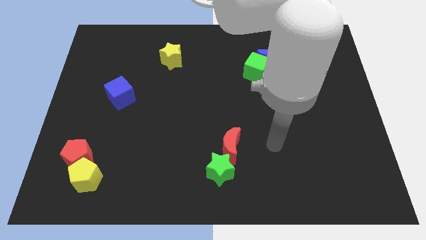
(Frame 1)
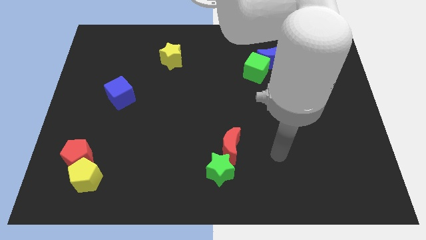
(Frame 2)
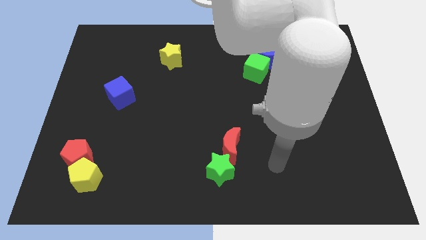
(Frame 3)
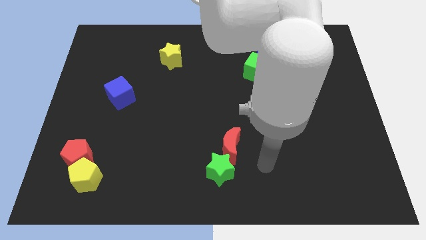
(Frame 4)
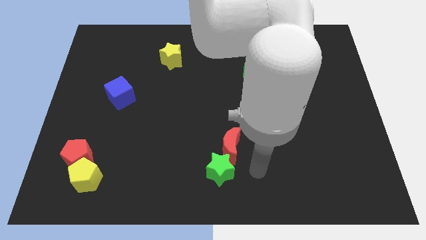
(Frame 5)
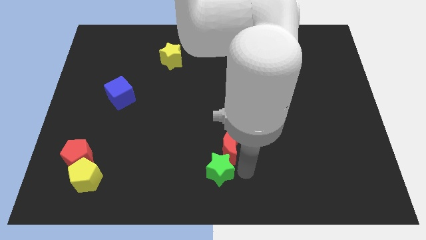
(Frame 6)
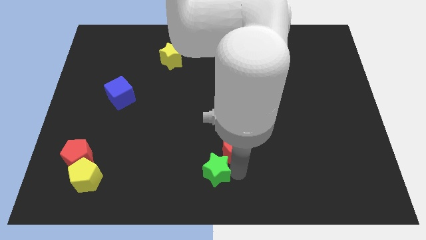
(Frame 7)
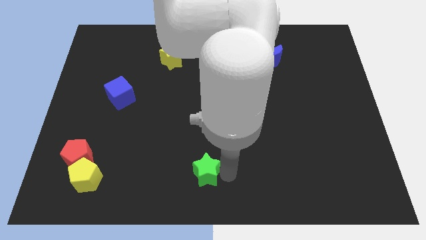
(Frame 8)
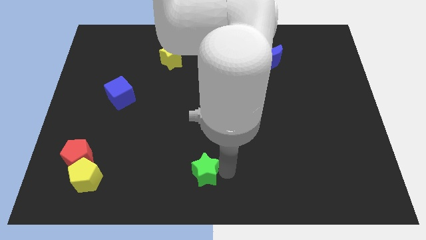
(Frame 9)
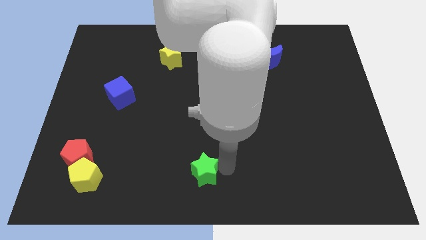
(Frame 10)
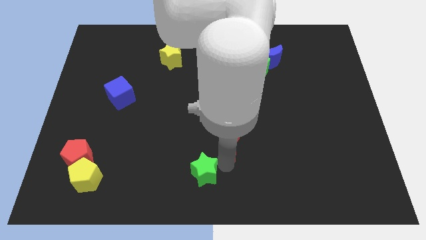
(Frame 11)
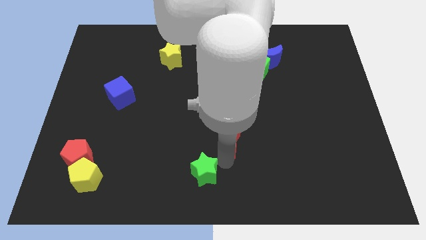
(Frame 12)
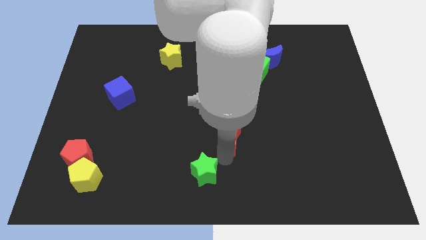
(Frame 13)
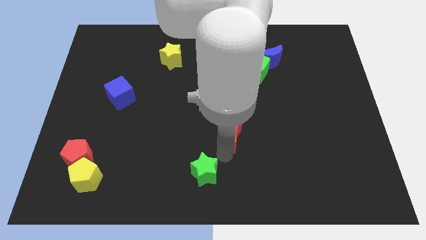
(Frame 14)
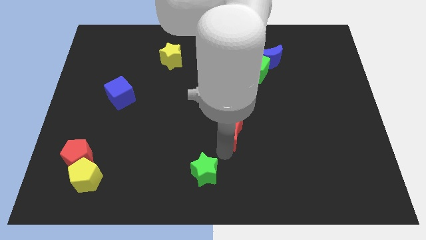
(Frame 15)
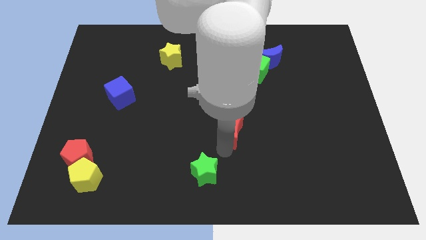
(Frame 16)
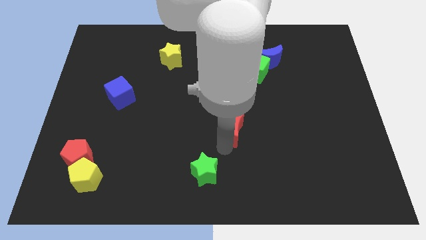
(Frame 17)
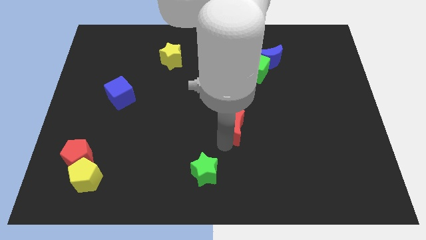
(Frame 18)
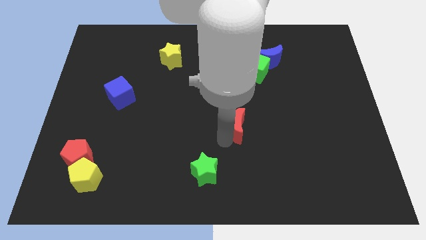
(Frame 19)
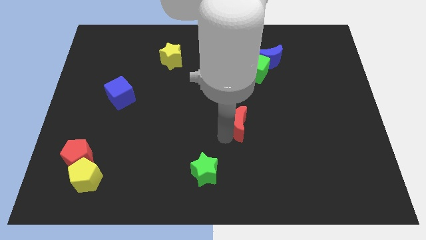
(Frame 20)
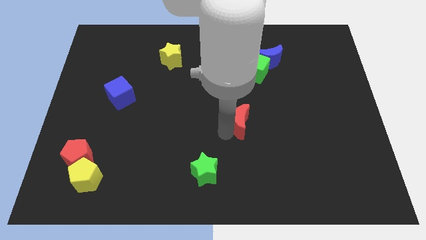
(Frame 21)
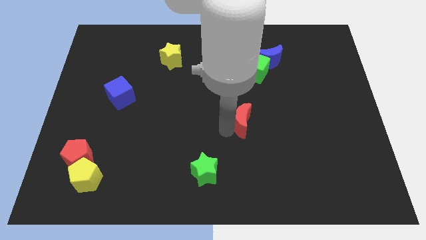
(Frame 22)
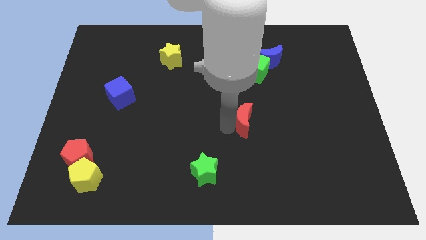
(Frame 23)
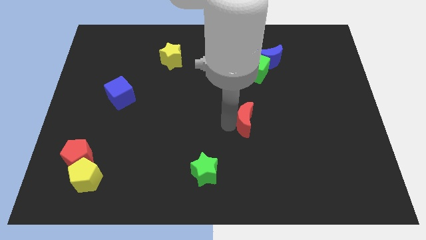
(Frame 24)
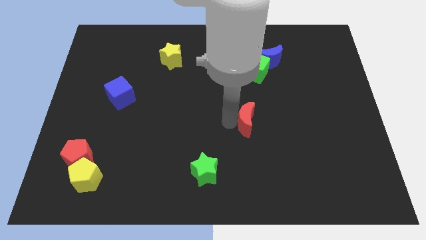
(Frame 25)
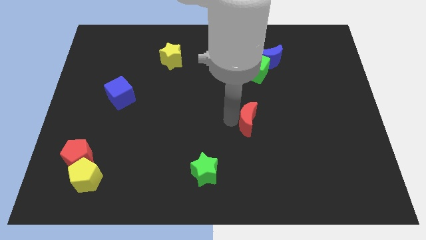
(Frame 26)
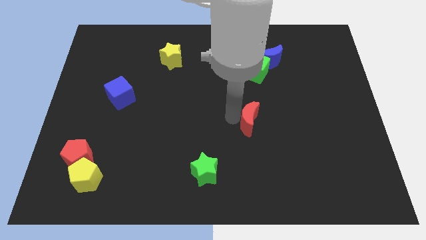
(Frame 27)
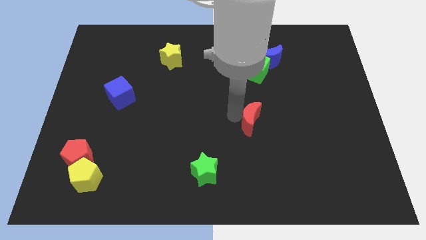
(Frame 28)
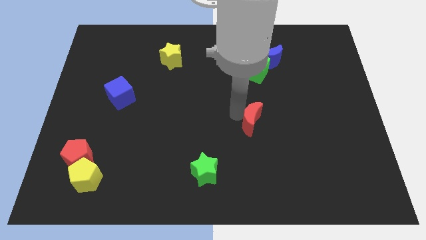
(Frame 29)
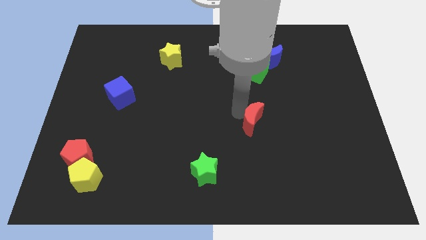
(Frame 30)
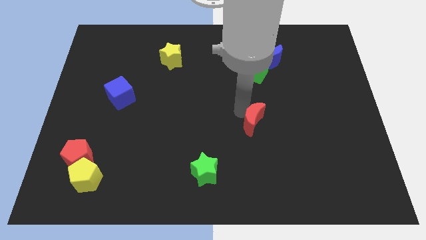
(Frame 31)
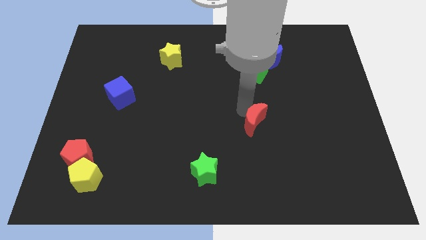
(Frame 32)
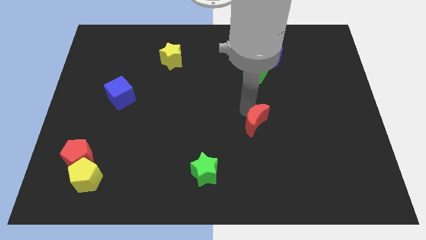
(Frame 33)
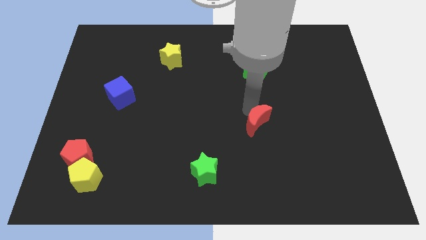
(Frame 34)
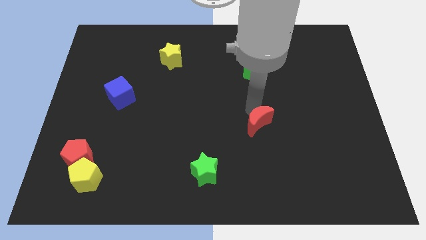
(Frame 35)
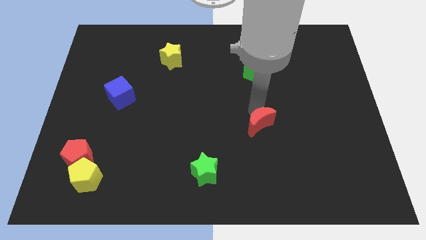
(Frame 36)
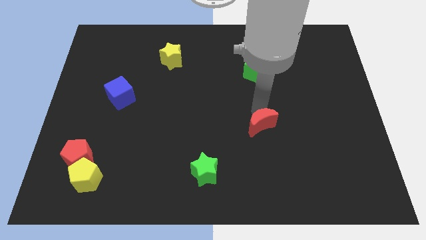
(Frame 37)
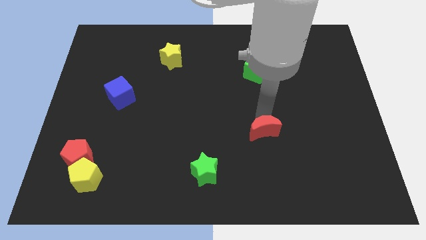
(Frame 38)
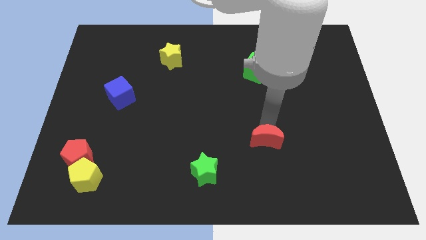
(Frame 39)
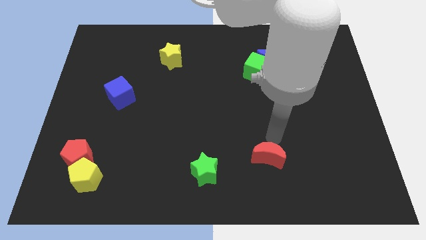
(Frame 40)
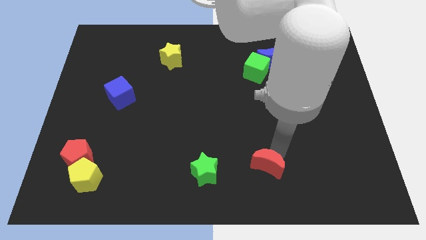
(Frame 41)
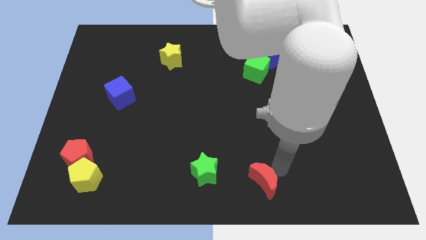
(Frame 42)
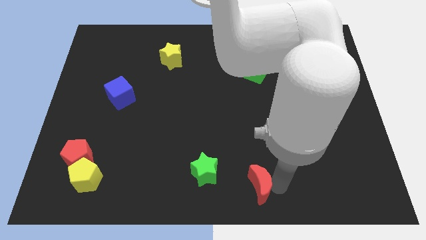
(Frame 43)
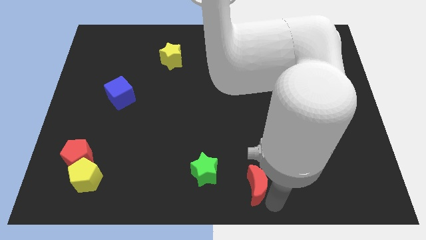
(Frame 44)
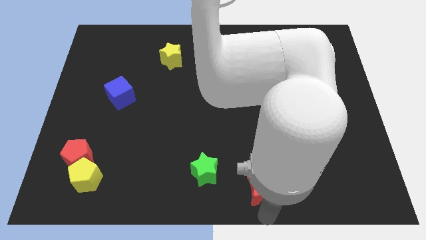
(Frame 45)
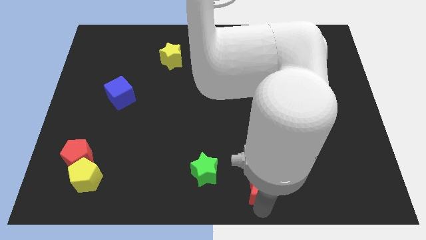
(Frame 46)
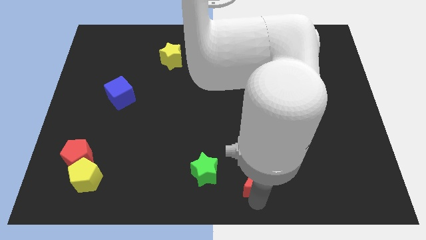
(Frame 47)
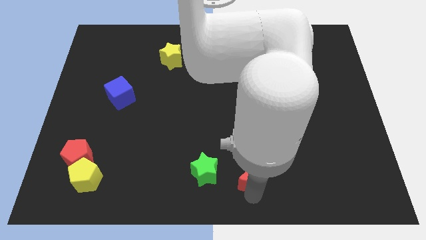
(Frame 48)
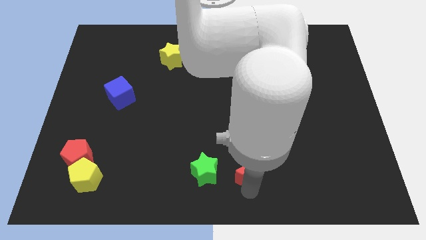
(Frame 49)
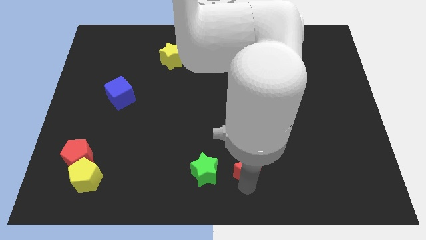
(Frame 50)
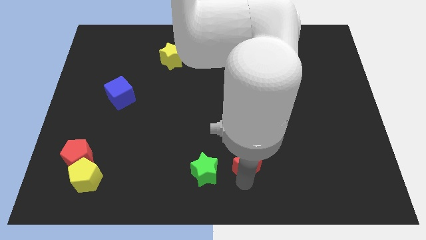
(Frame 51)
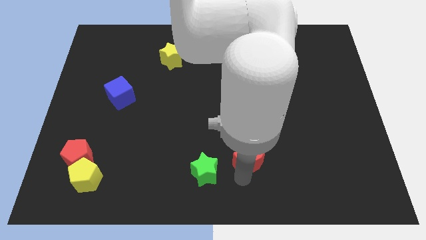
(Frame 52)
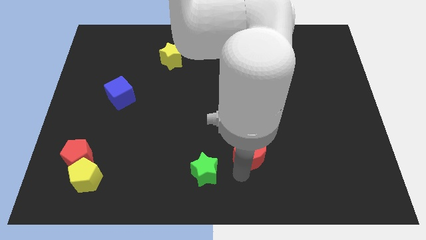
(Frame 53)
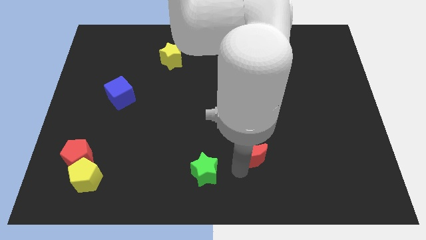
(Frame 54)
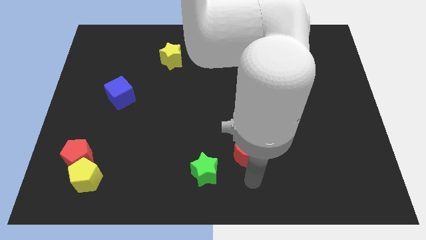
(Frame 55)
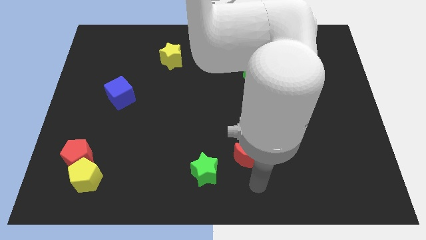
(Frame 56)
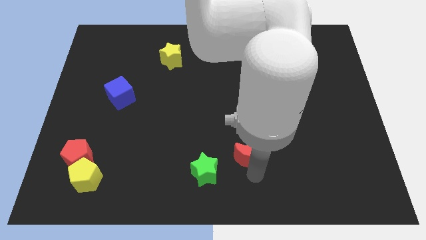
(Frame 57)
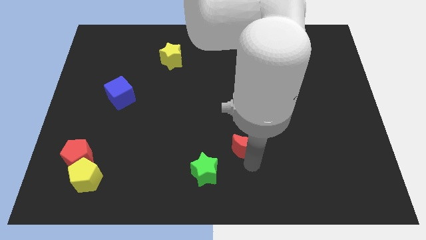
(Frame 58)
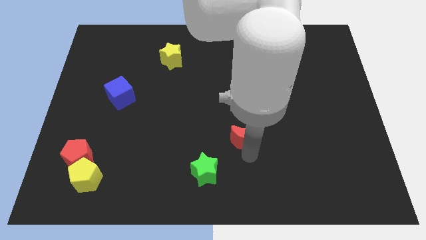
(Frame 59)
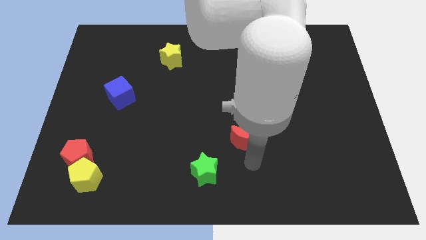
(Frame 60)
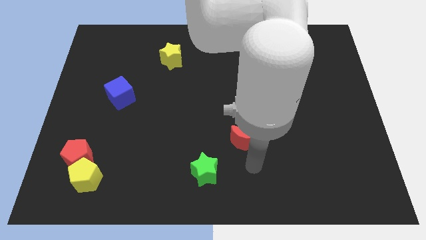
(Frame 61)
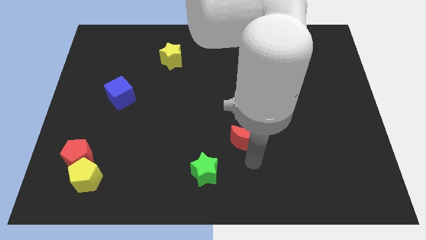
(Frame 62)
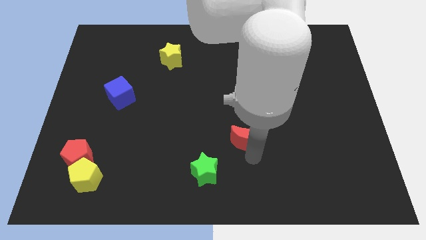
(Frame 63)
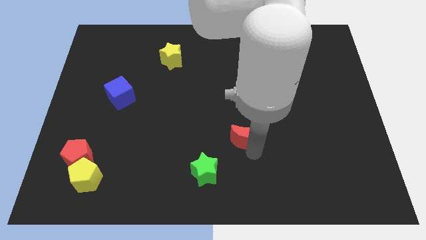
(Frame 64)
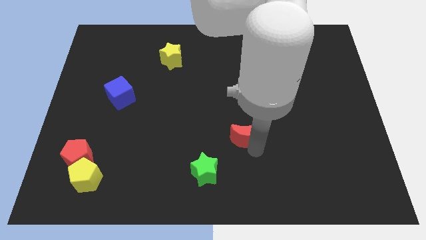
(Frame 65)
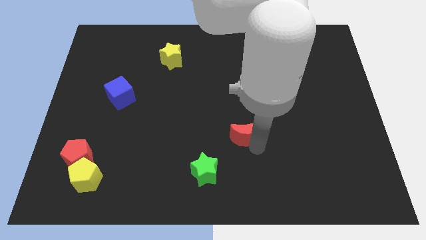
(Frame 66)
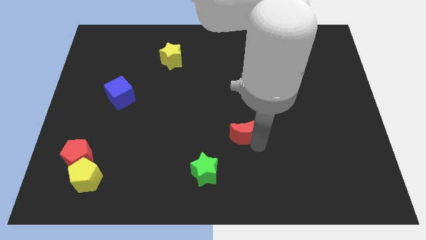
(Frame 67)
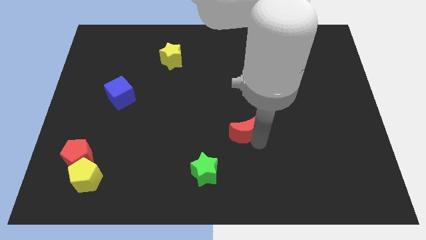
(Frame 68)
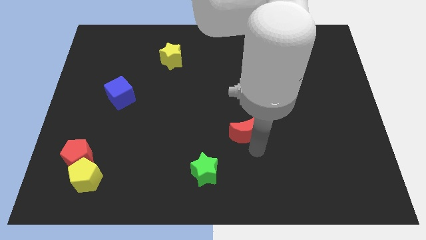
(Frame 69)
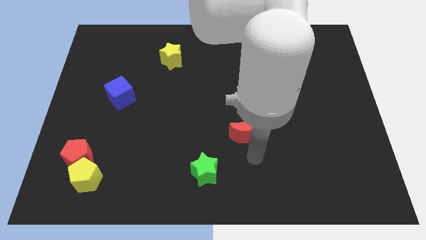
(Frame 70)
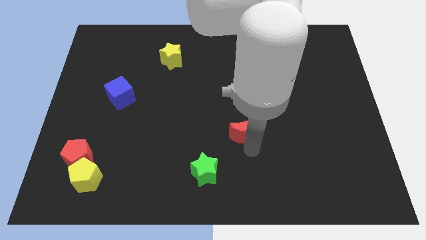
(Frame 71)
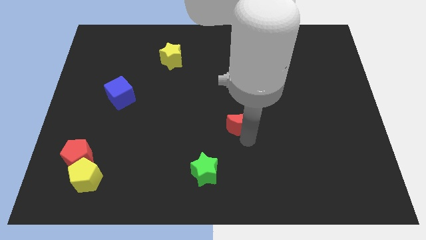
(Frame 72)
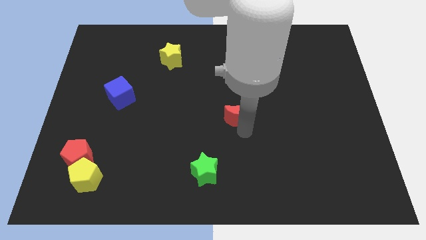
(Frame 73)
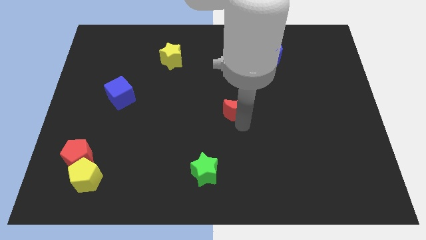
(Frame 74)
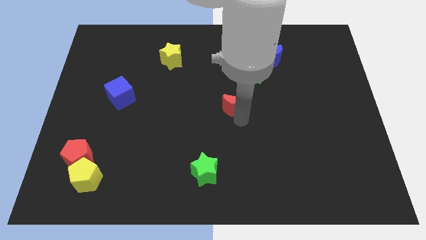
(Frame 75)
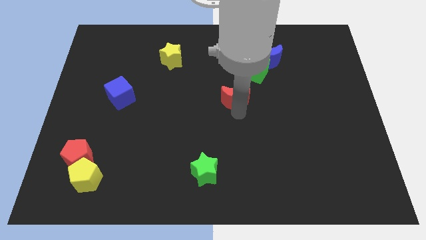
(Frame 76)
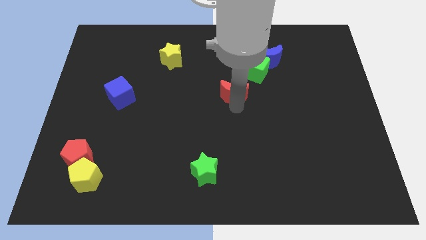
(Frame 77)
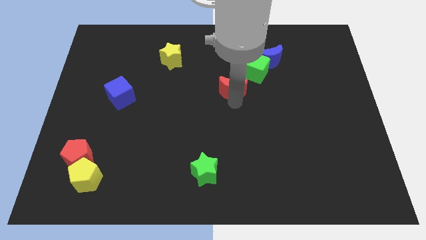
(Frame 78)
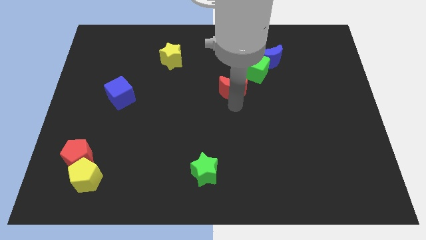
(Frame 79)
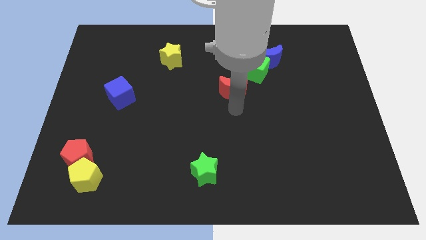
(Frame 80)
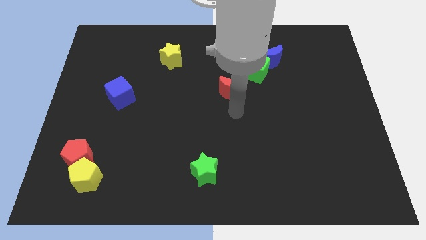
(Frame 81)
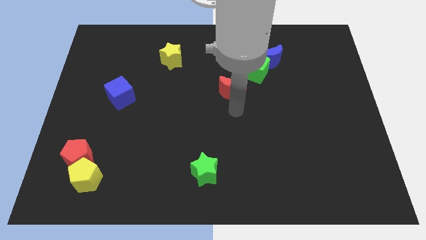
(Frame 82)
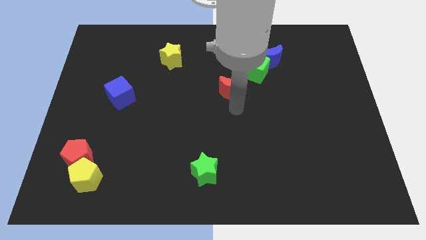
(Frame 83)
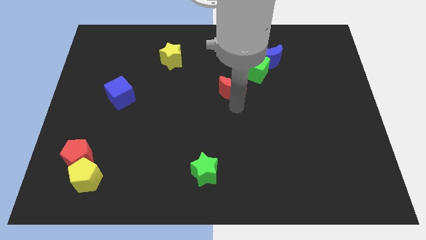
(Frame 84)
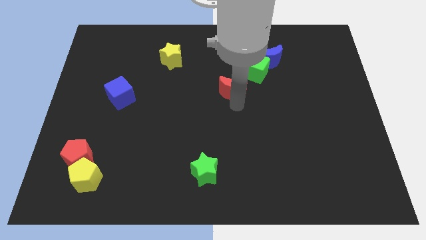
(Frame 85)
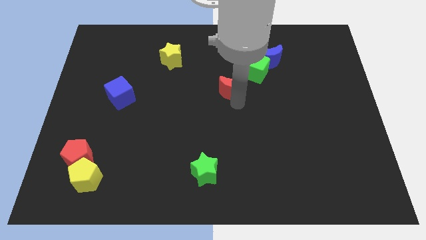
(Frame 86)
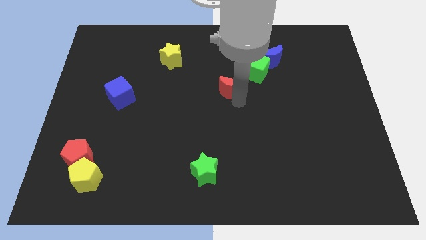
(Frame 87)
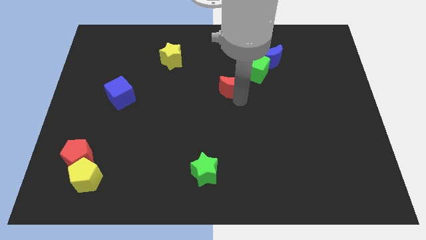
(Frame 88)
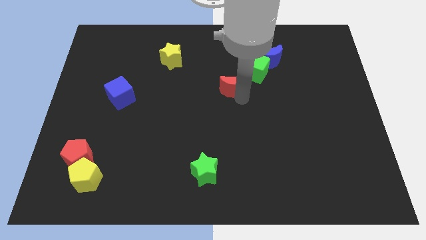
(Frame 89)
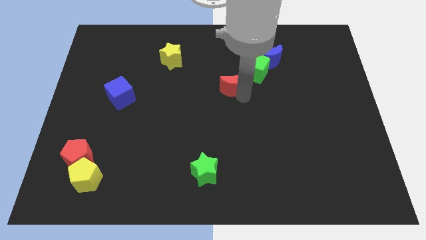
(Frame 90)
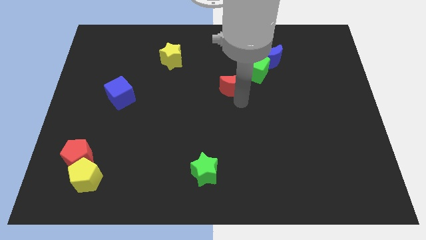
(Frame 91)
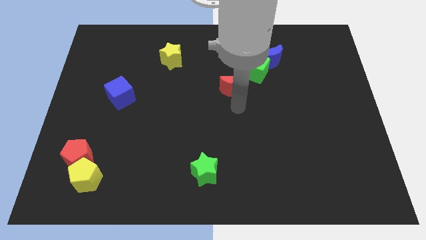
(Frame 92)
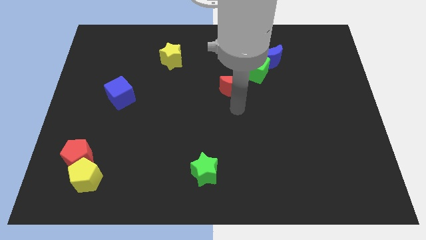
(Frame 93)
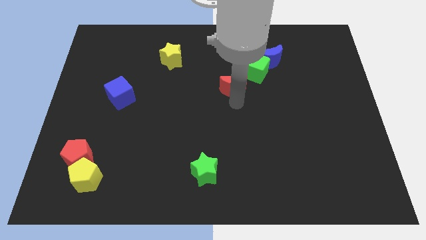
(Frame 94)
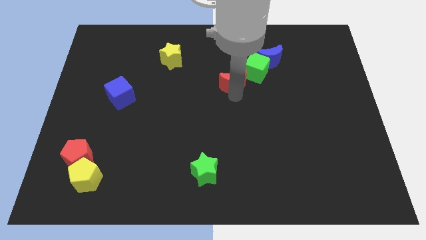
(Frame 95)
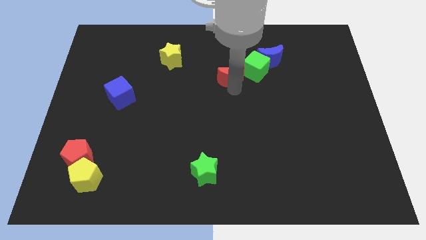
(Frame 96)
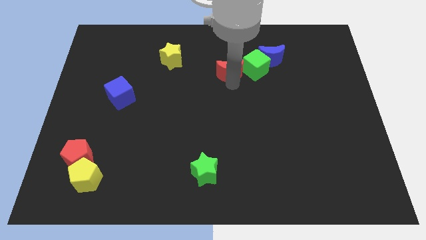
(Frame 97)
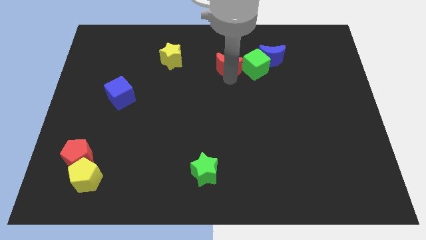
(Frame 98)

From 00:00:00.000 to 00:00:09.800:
move the red moon just left of the blue moon
